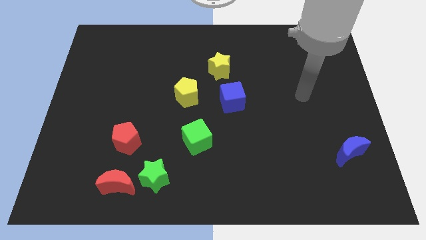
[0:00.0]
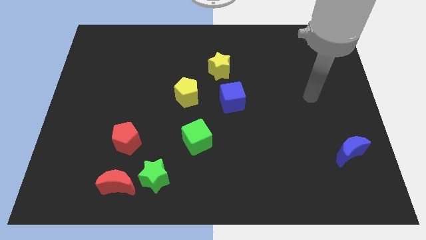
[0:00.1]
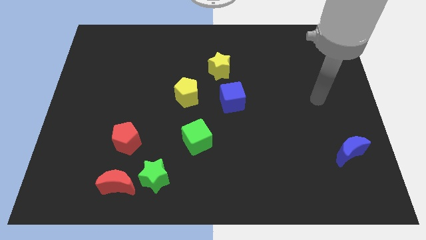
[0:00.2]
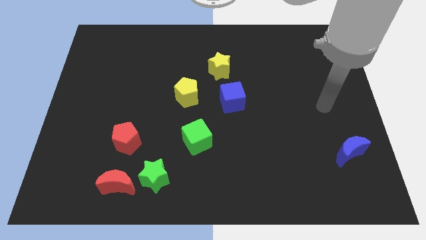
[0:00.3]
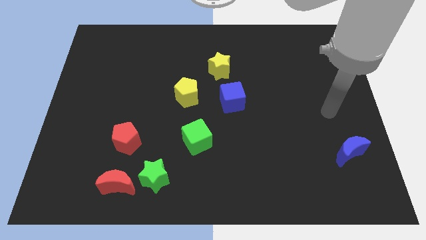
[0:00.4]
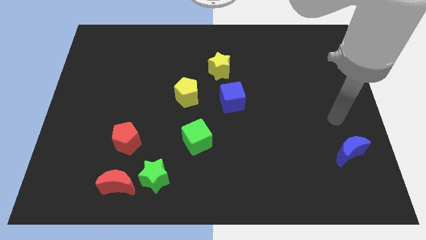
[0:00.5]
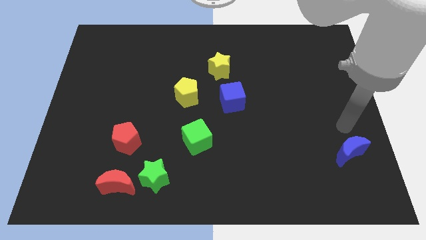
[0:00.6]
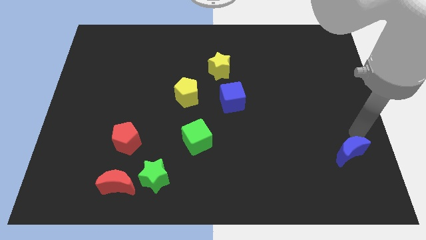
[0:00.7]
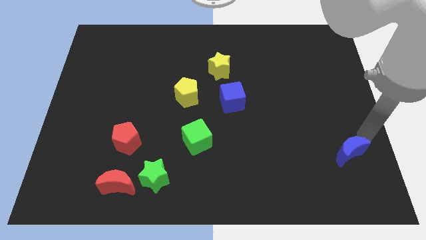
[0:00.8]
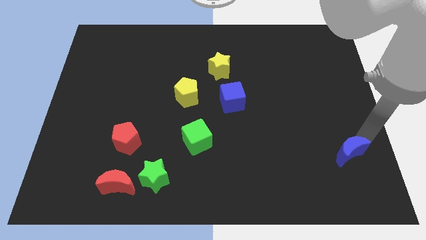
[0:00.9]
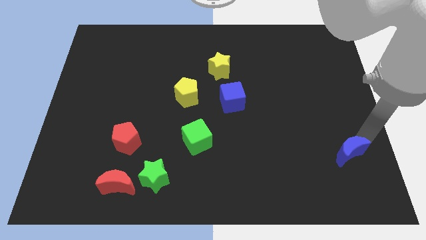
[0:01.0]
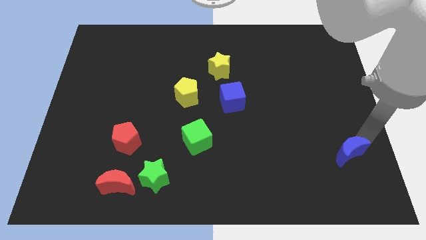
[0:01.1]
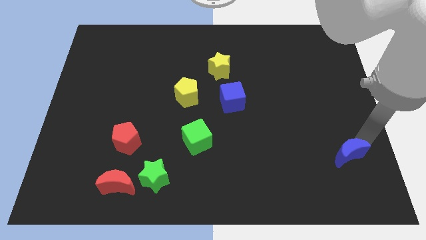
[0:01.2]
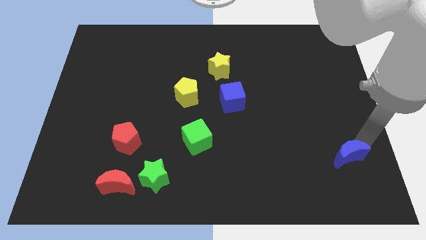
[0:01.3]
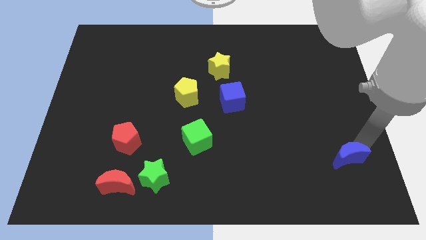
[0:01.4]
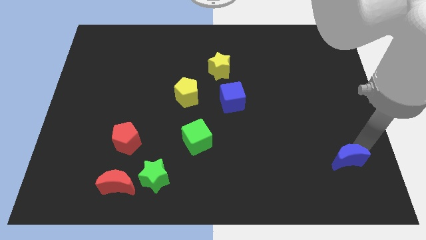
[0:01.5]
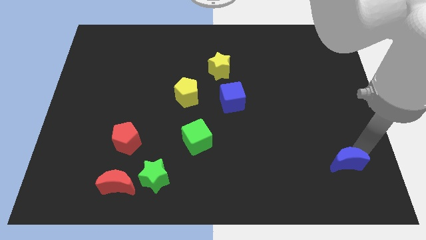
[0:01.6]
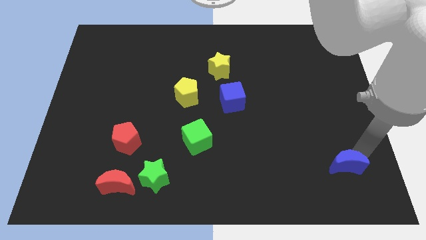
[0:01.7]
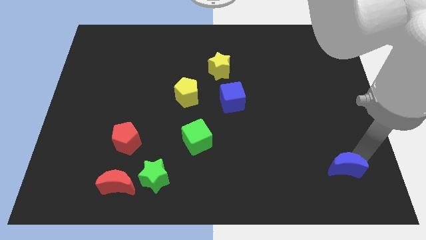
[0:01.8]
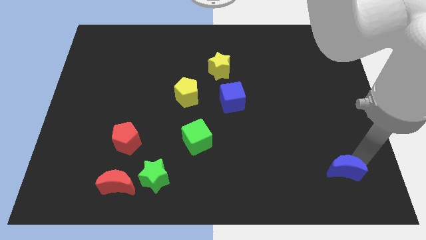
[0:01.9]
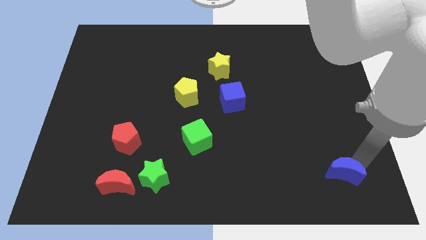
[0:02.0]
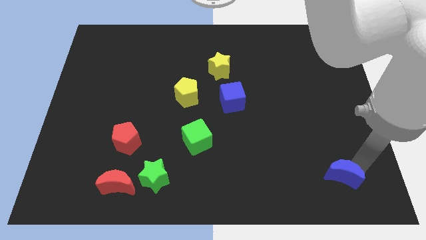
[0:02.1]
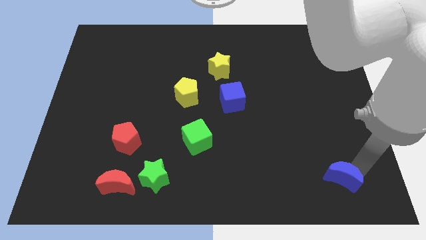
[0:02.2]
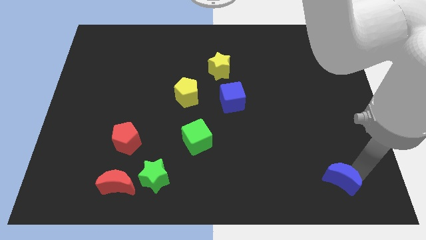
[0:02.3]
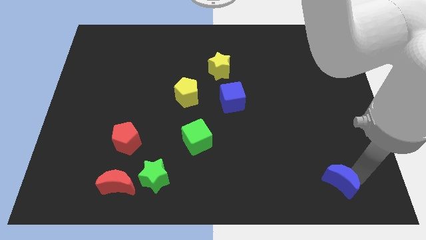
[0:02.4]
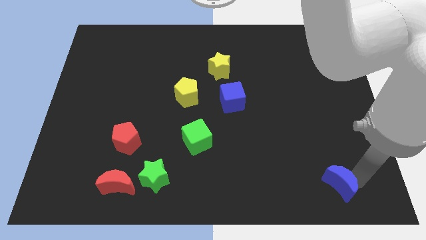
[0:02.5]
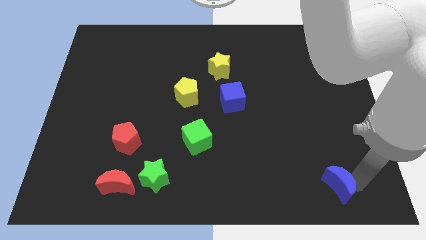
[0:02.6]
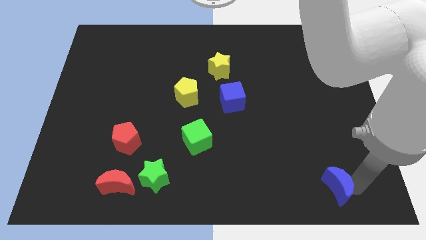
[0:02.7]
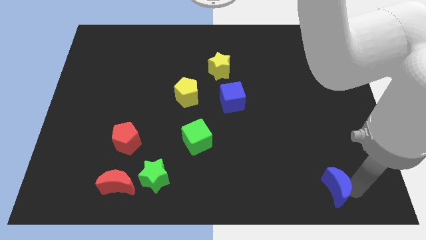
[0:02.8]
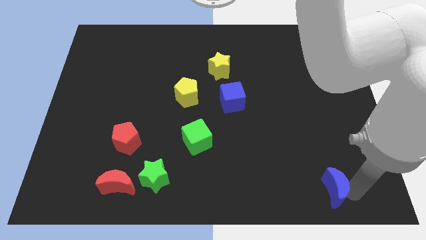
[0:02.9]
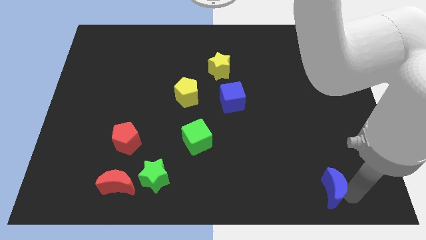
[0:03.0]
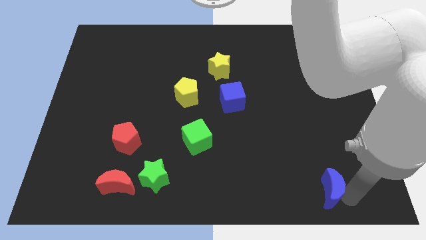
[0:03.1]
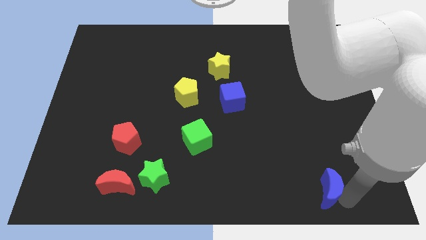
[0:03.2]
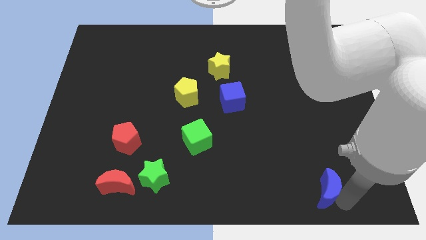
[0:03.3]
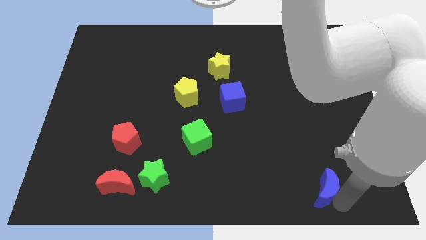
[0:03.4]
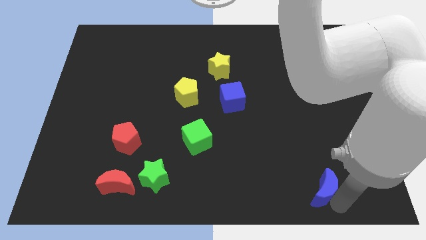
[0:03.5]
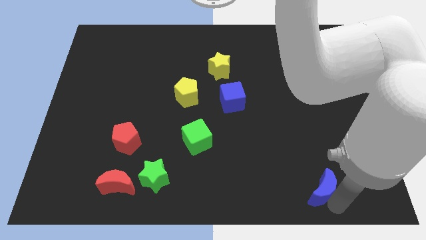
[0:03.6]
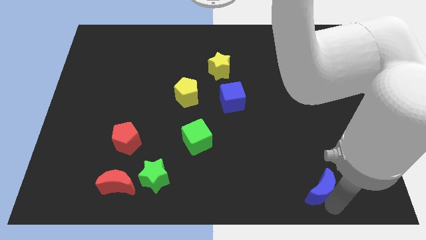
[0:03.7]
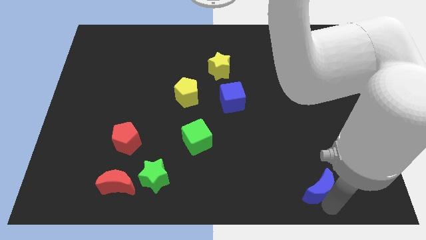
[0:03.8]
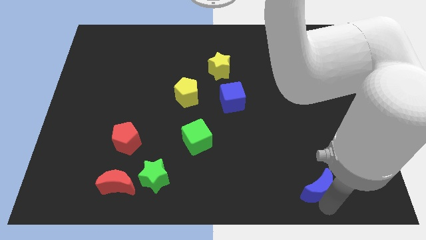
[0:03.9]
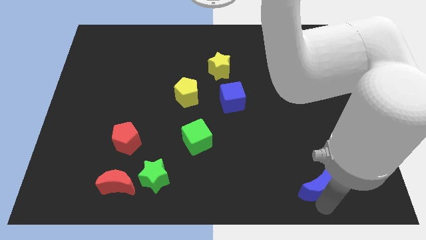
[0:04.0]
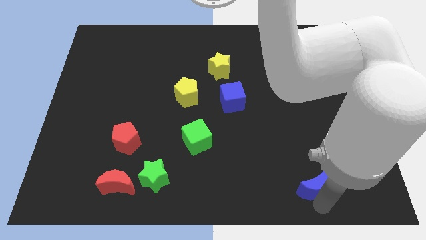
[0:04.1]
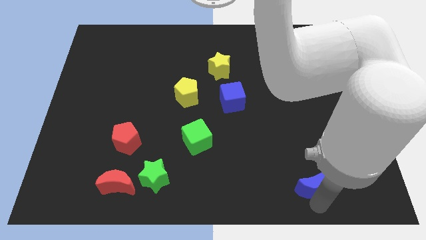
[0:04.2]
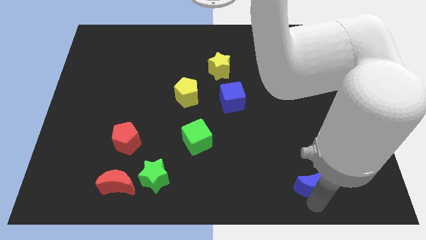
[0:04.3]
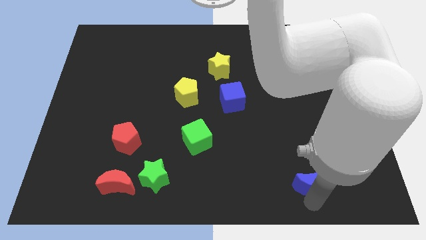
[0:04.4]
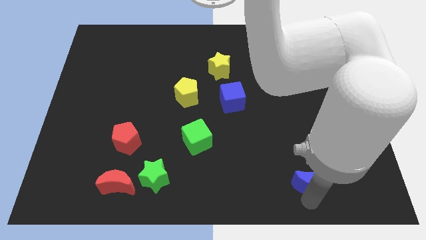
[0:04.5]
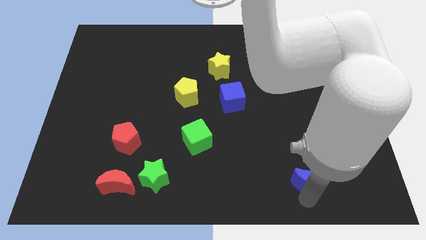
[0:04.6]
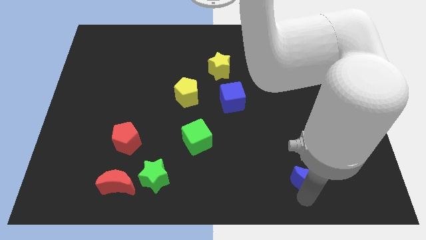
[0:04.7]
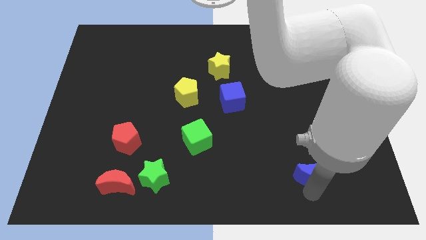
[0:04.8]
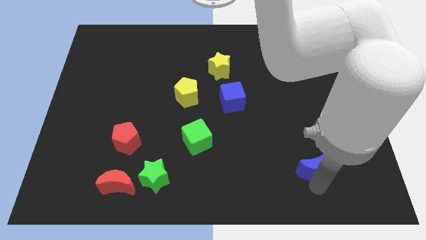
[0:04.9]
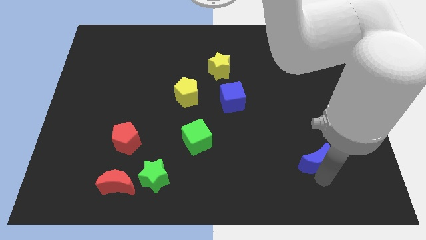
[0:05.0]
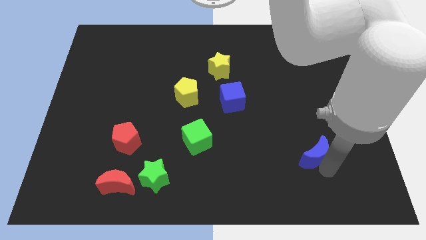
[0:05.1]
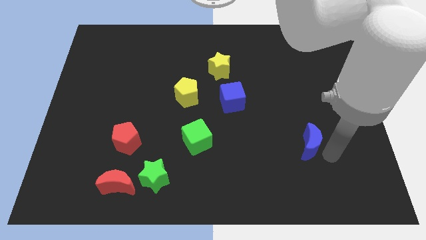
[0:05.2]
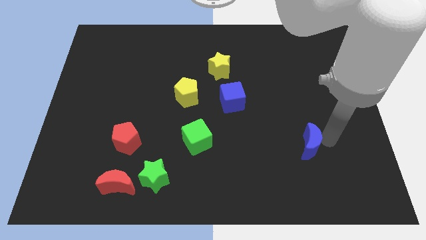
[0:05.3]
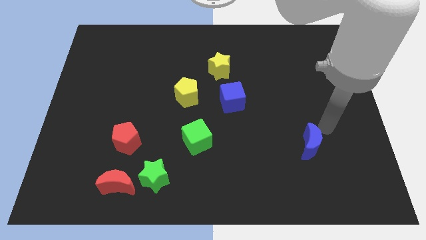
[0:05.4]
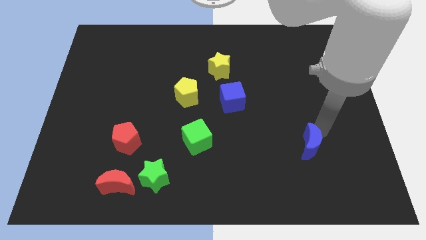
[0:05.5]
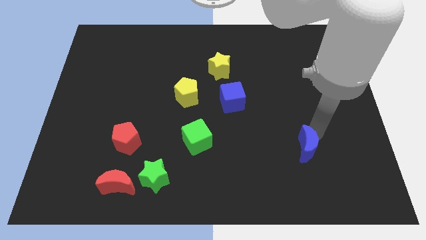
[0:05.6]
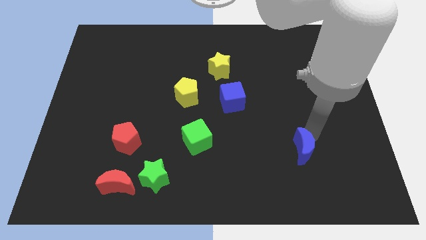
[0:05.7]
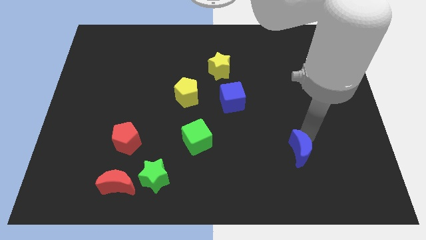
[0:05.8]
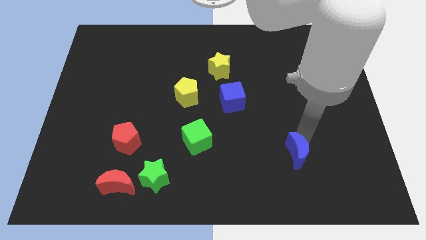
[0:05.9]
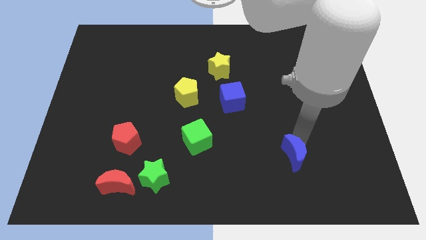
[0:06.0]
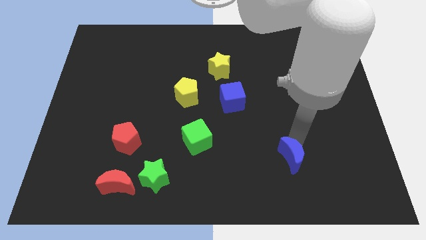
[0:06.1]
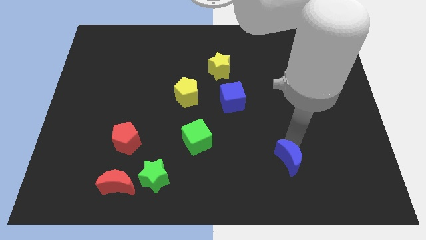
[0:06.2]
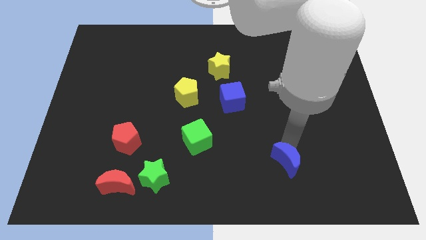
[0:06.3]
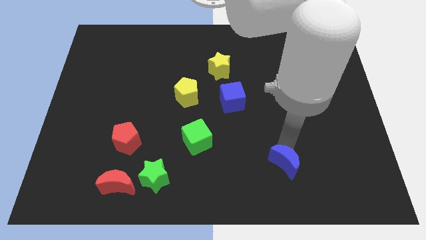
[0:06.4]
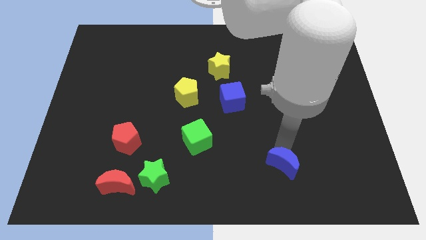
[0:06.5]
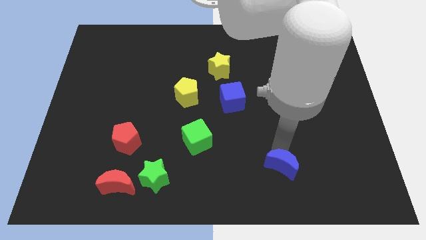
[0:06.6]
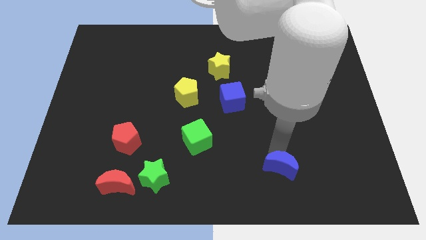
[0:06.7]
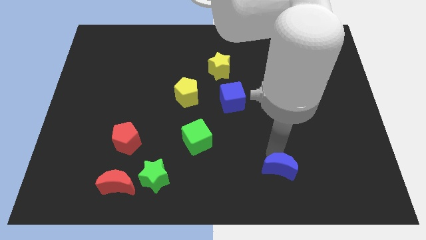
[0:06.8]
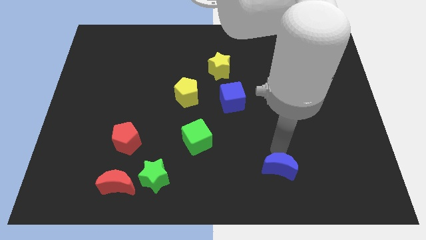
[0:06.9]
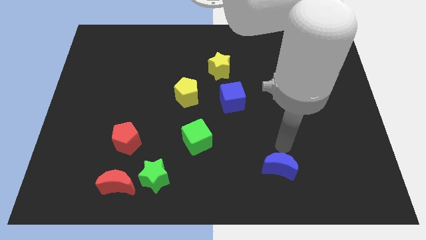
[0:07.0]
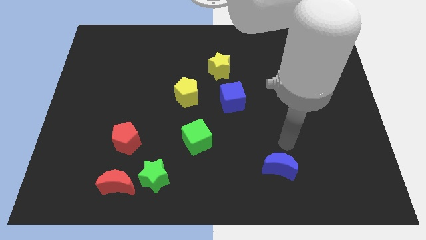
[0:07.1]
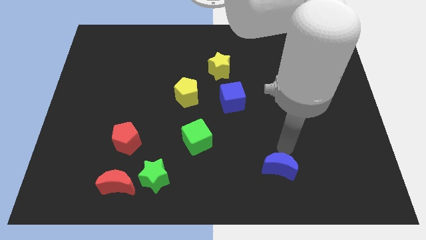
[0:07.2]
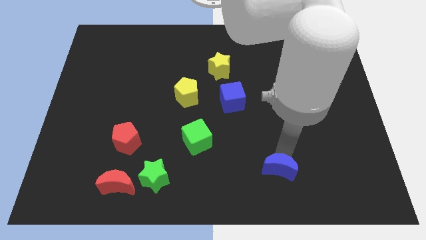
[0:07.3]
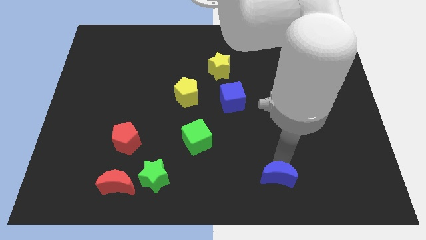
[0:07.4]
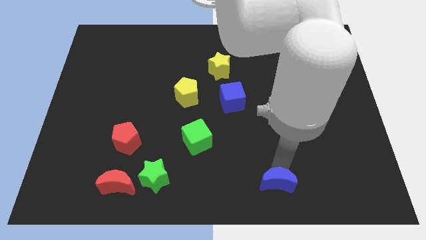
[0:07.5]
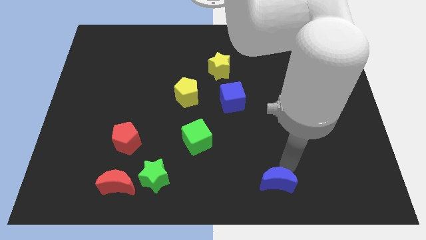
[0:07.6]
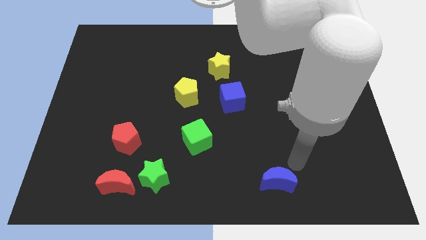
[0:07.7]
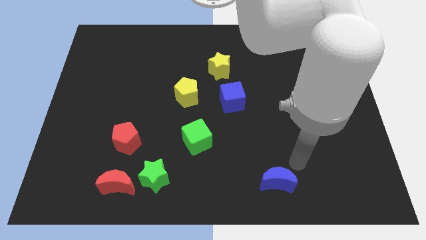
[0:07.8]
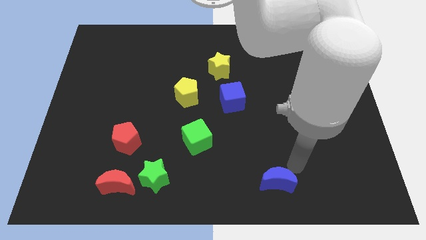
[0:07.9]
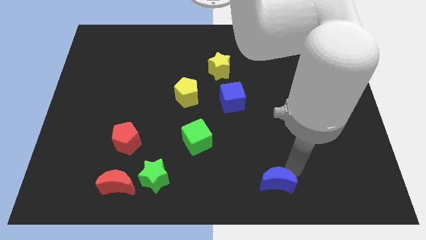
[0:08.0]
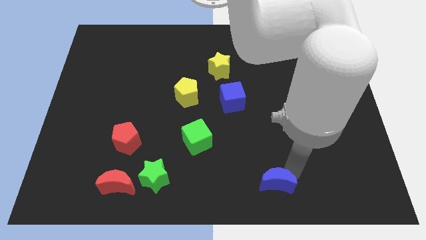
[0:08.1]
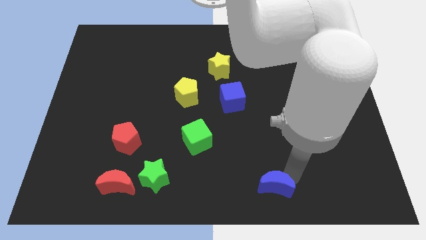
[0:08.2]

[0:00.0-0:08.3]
put the blue moon to the bottom
